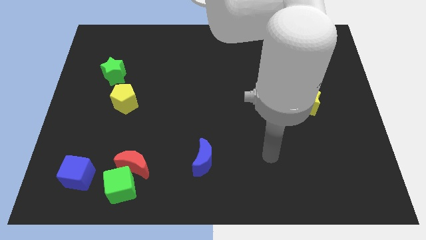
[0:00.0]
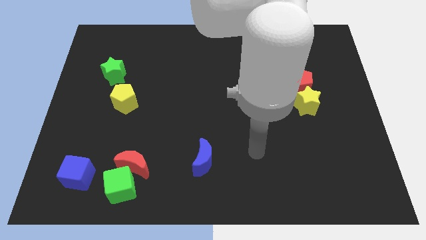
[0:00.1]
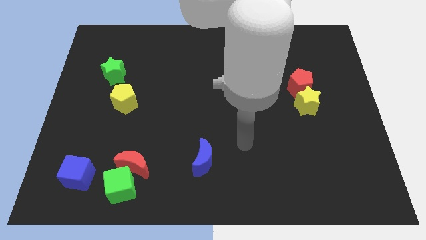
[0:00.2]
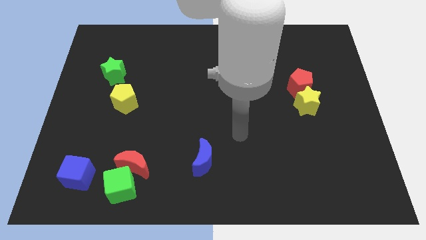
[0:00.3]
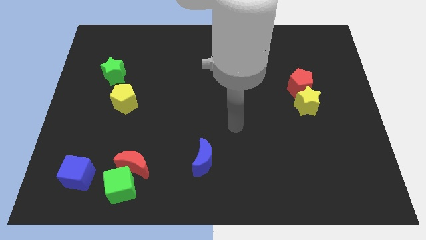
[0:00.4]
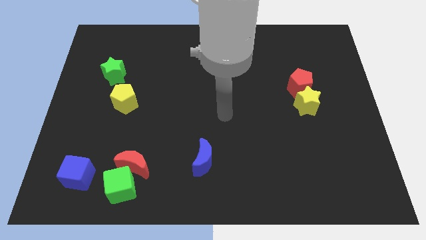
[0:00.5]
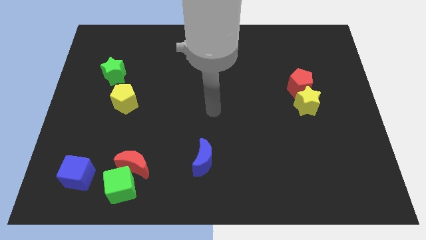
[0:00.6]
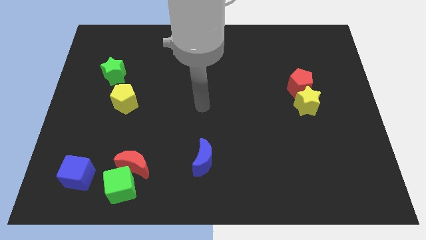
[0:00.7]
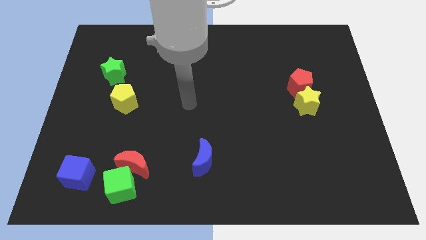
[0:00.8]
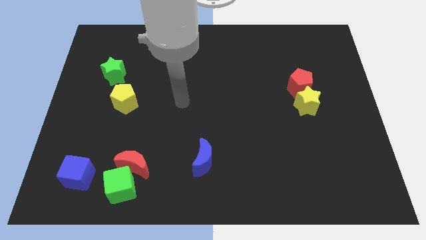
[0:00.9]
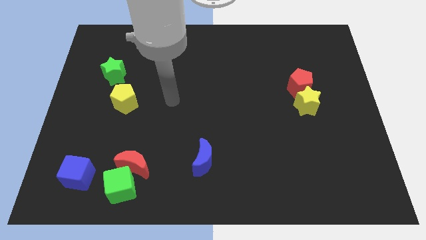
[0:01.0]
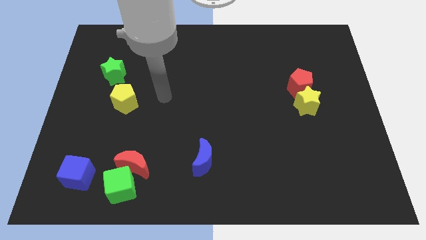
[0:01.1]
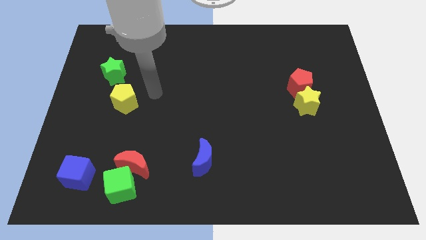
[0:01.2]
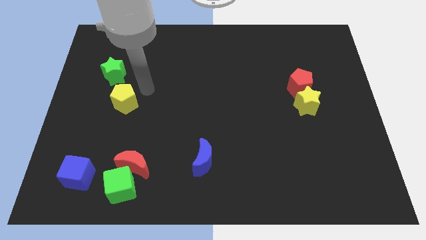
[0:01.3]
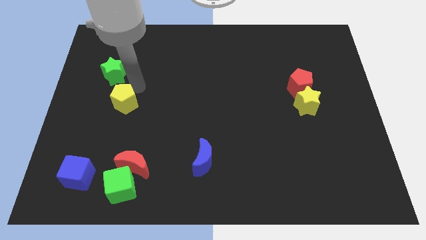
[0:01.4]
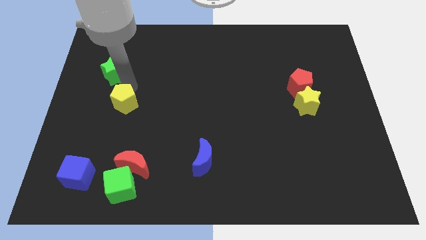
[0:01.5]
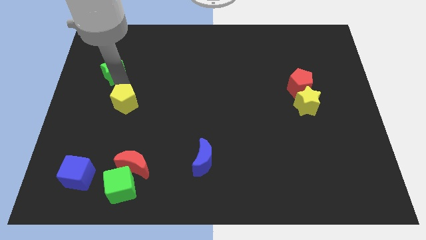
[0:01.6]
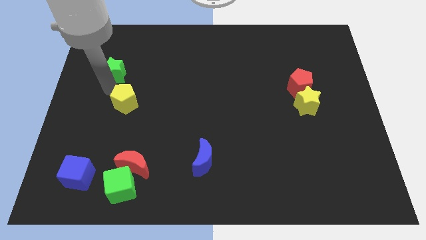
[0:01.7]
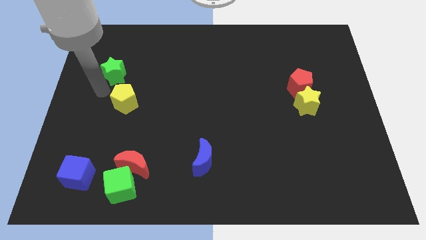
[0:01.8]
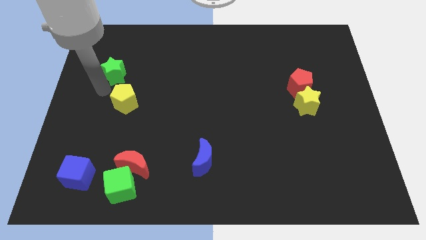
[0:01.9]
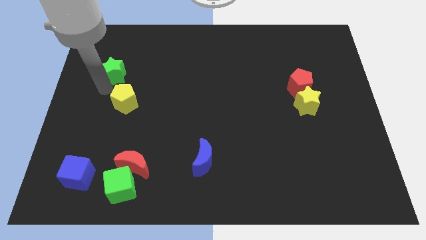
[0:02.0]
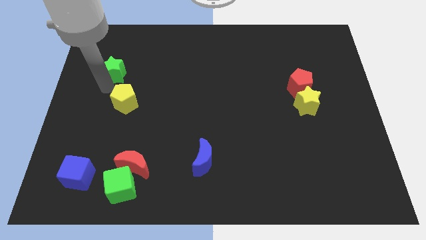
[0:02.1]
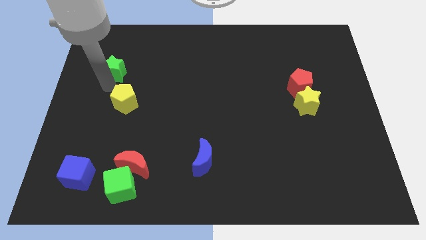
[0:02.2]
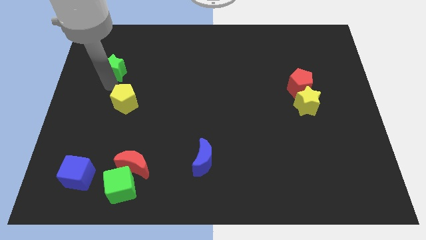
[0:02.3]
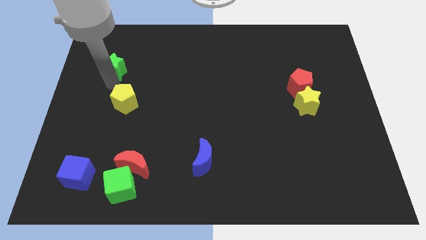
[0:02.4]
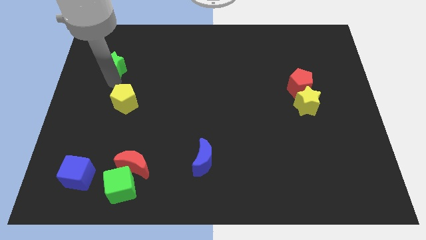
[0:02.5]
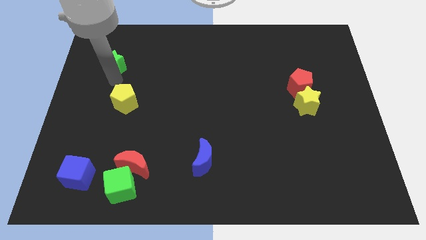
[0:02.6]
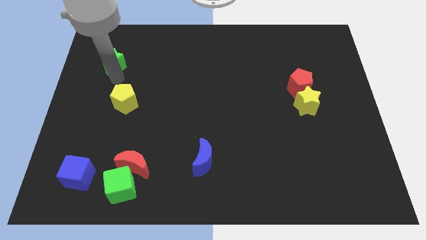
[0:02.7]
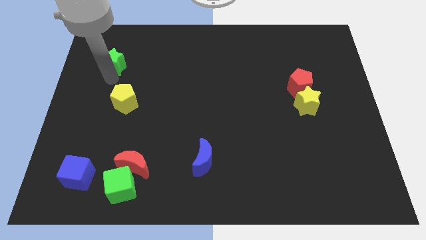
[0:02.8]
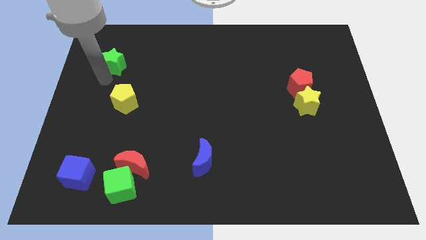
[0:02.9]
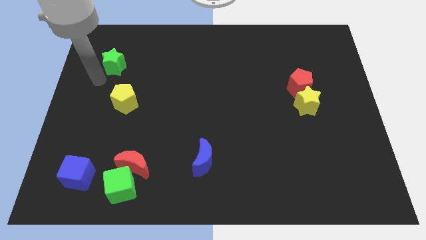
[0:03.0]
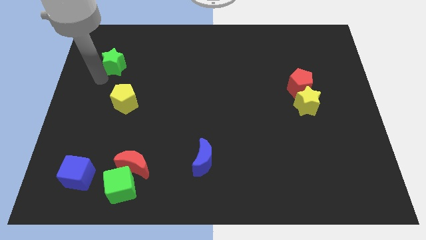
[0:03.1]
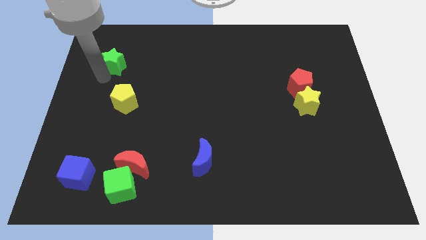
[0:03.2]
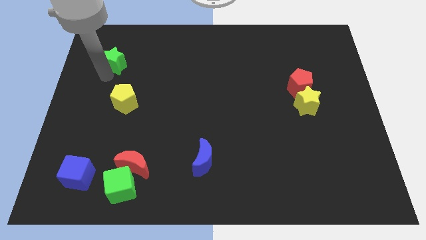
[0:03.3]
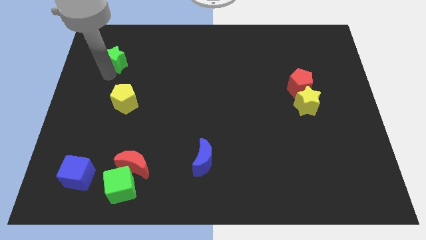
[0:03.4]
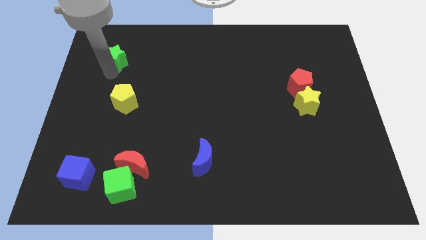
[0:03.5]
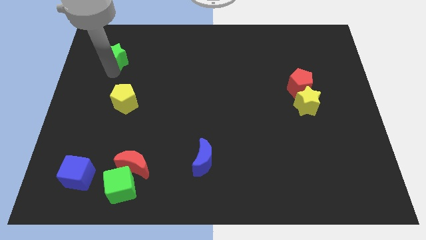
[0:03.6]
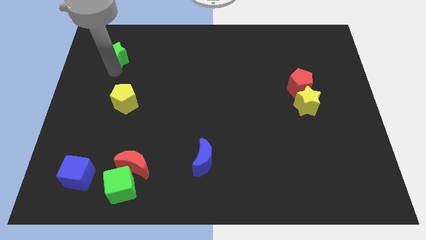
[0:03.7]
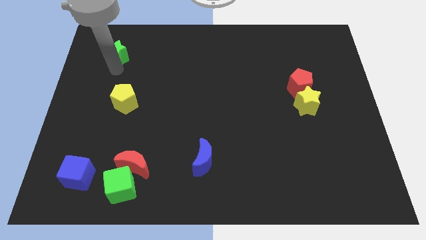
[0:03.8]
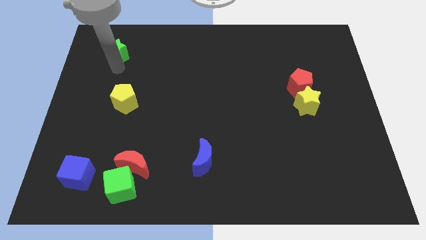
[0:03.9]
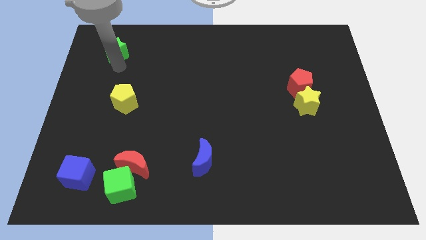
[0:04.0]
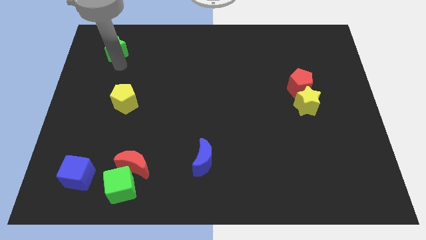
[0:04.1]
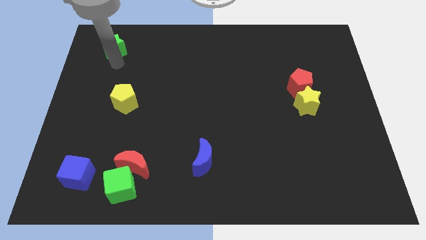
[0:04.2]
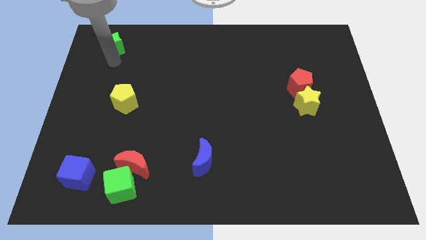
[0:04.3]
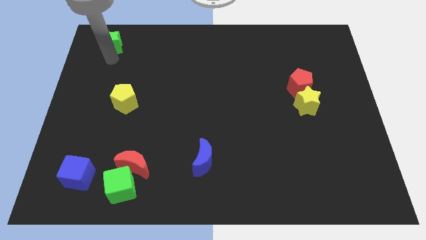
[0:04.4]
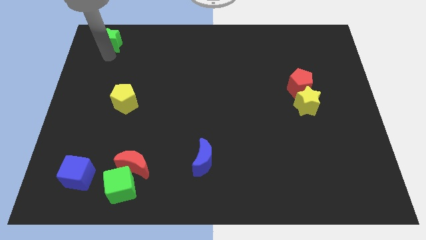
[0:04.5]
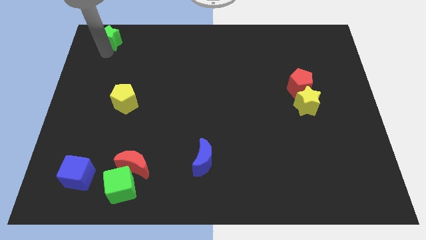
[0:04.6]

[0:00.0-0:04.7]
push the green star to the upper left corner

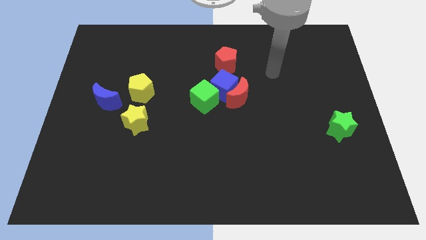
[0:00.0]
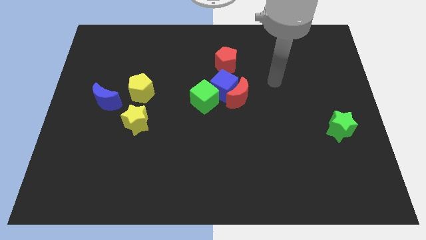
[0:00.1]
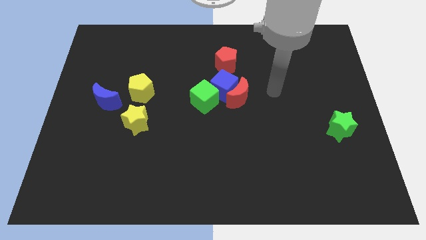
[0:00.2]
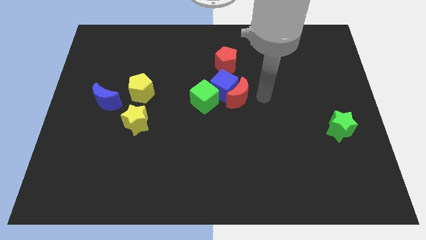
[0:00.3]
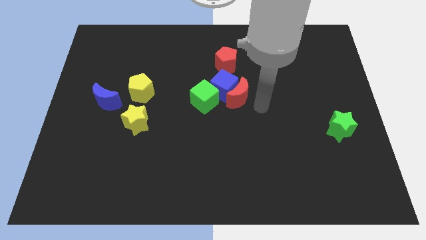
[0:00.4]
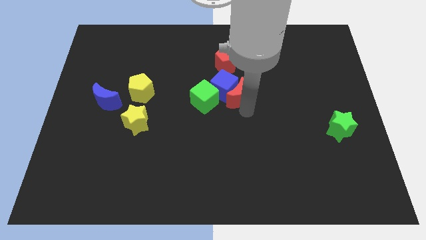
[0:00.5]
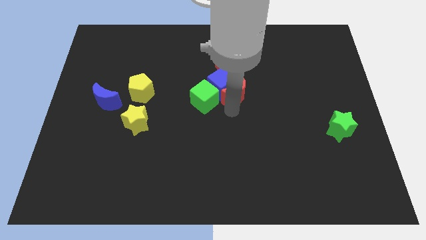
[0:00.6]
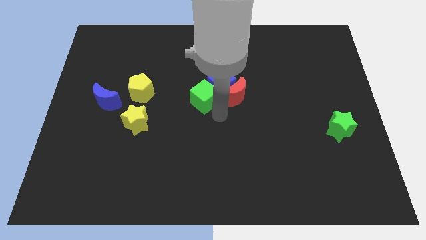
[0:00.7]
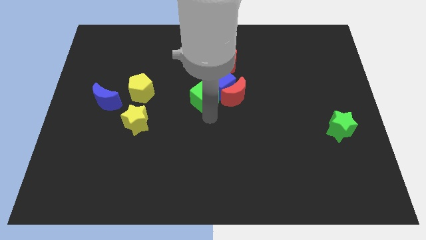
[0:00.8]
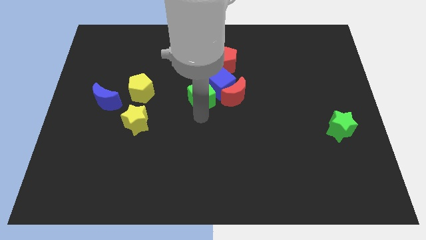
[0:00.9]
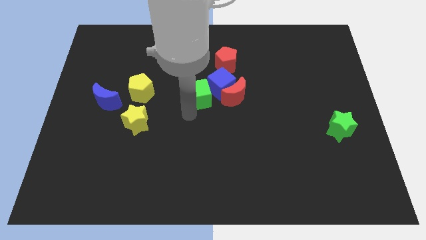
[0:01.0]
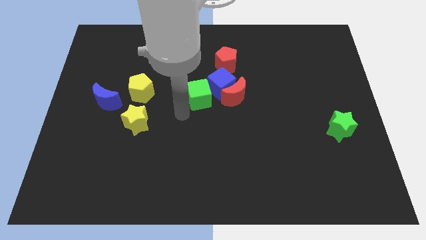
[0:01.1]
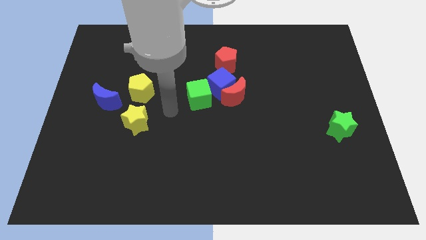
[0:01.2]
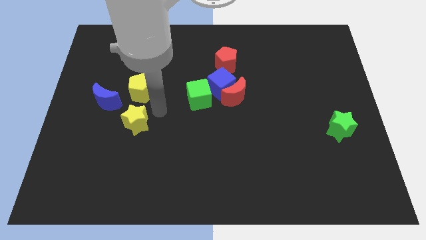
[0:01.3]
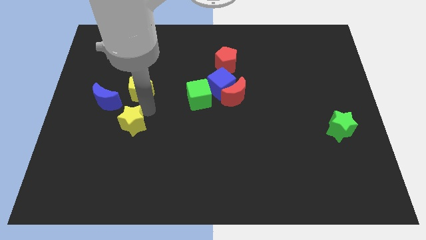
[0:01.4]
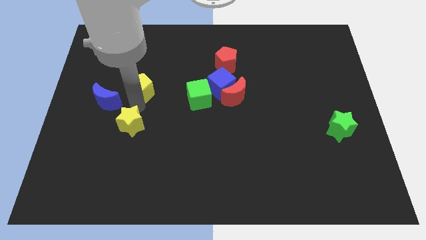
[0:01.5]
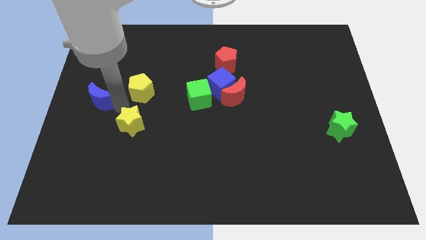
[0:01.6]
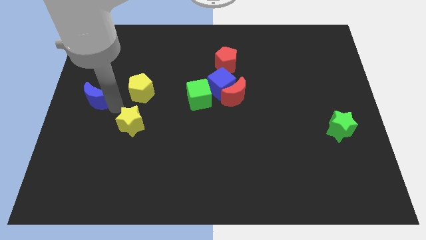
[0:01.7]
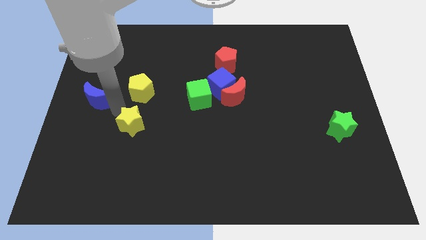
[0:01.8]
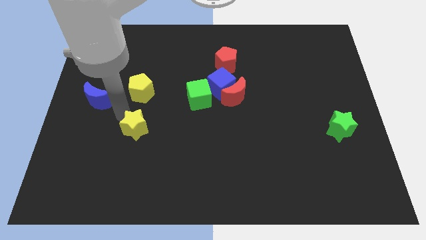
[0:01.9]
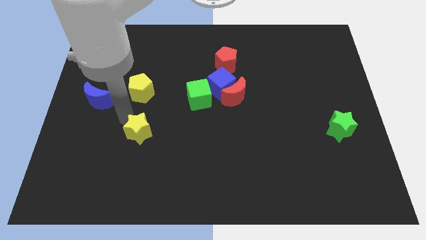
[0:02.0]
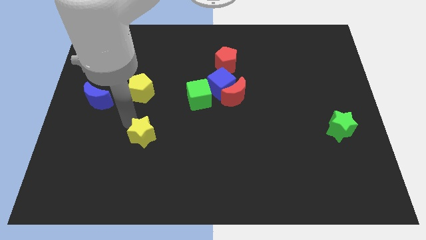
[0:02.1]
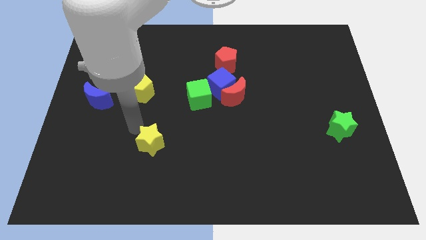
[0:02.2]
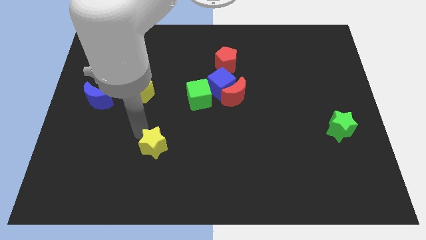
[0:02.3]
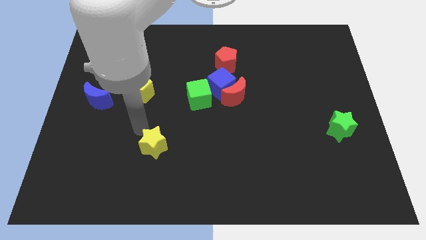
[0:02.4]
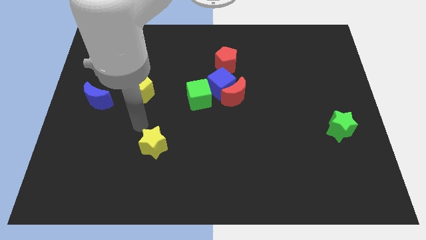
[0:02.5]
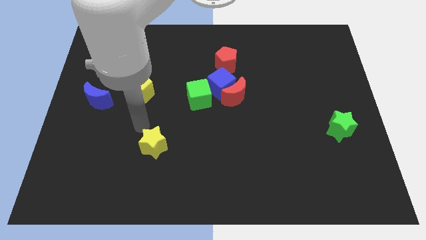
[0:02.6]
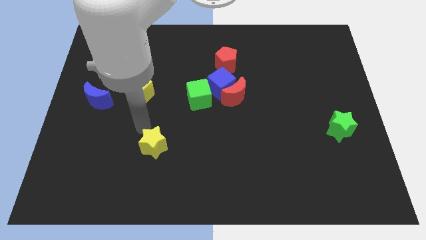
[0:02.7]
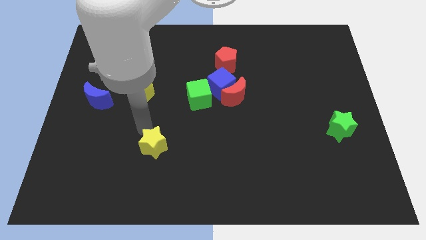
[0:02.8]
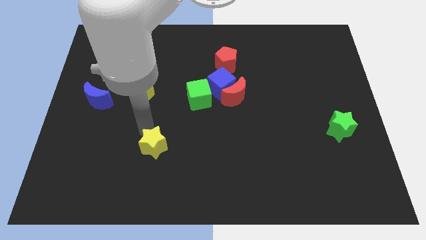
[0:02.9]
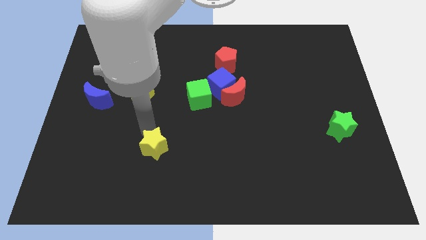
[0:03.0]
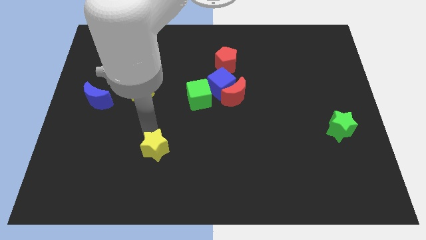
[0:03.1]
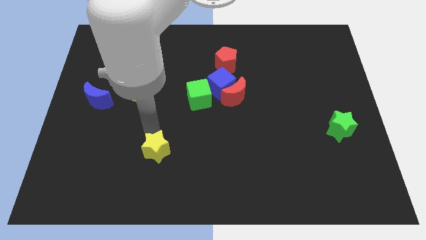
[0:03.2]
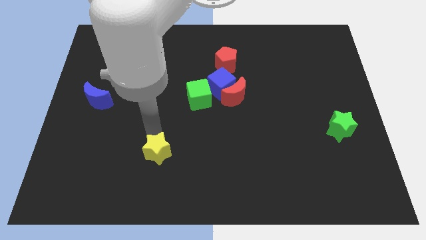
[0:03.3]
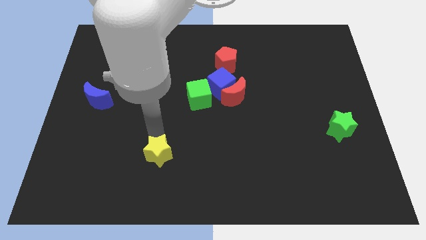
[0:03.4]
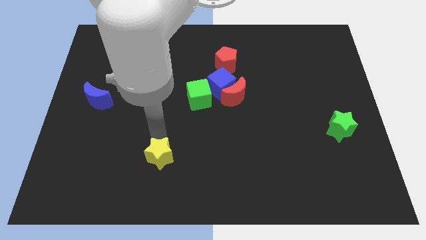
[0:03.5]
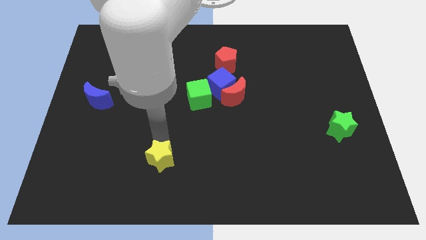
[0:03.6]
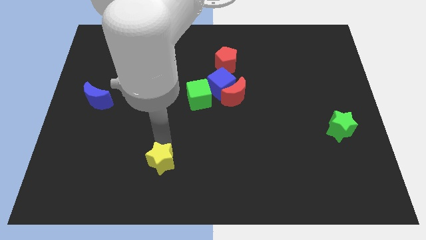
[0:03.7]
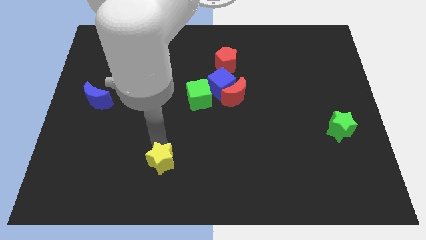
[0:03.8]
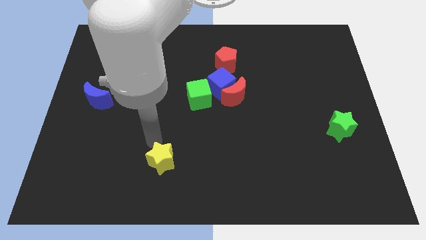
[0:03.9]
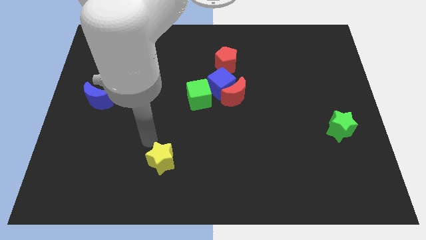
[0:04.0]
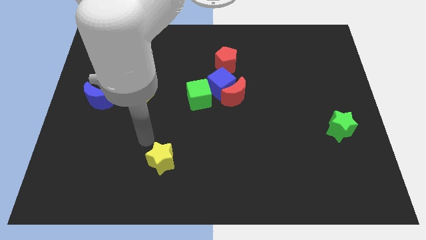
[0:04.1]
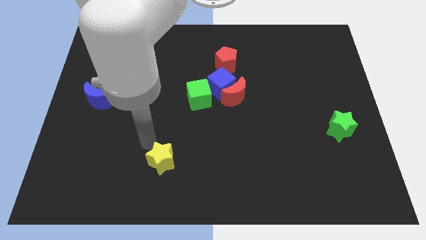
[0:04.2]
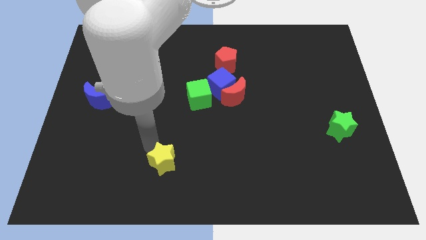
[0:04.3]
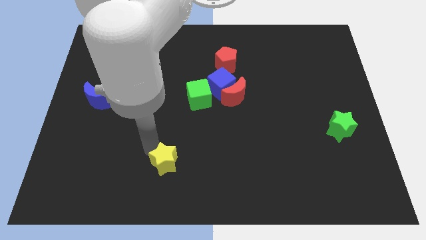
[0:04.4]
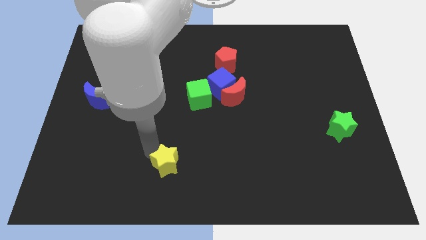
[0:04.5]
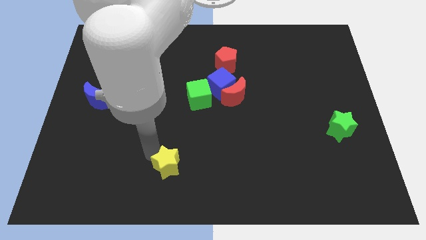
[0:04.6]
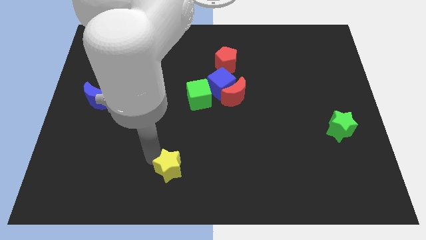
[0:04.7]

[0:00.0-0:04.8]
move the yellow star to the bottom side
